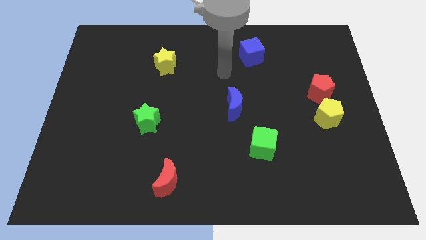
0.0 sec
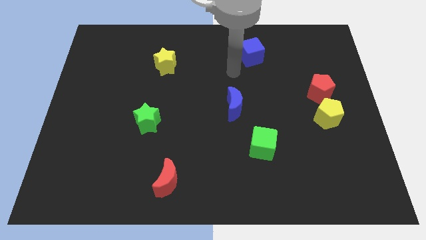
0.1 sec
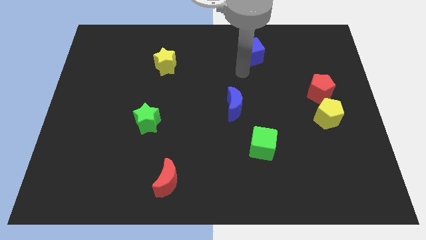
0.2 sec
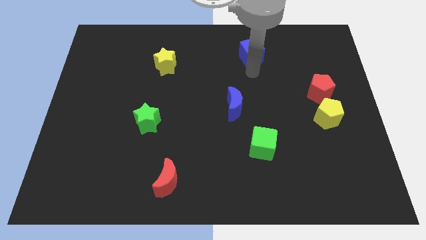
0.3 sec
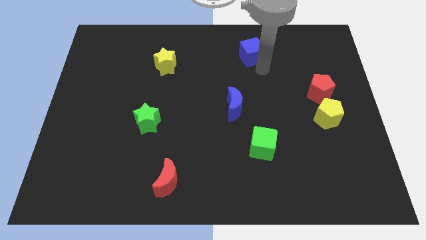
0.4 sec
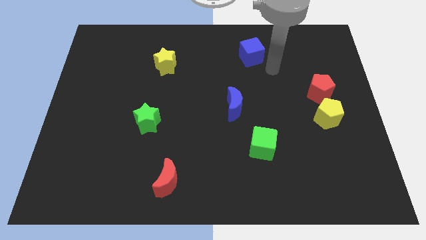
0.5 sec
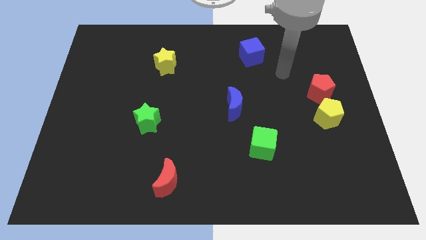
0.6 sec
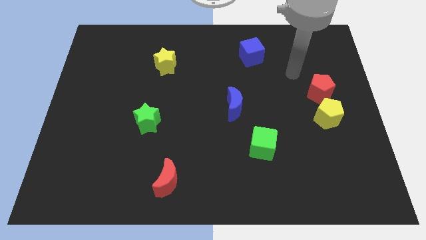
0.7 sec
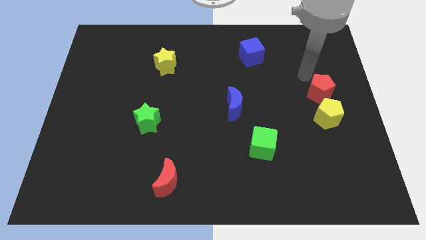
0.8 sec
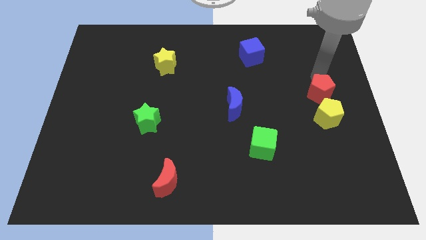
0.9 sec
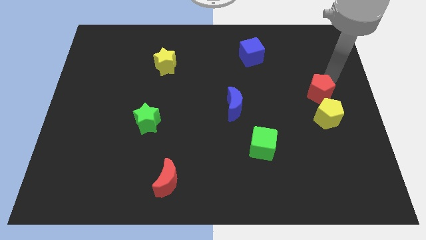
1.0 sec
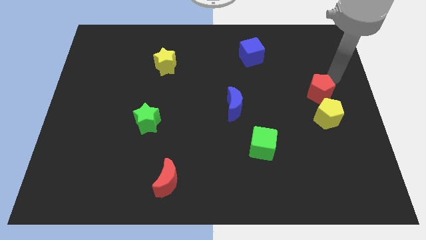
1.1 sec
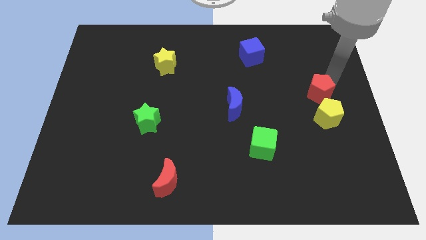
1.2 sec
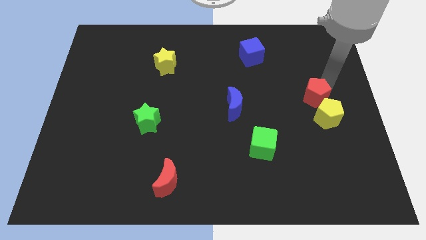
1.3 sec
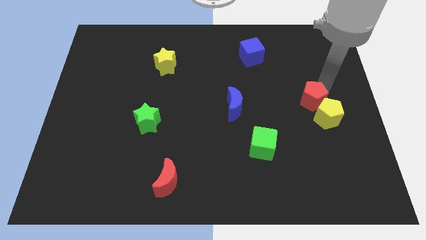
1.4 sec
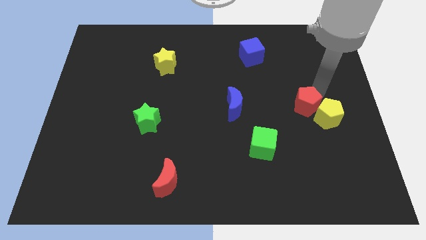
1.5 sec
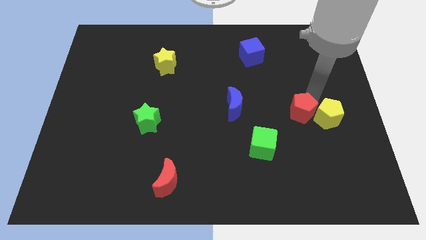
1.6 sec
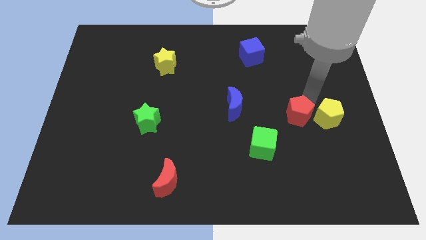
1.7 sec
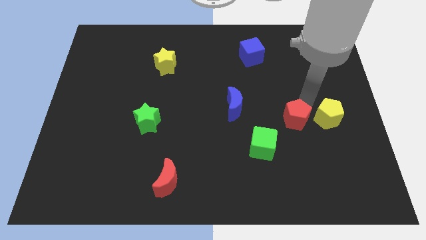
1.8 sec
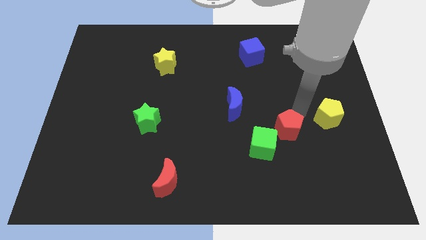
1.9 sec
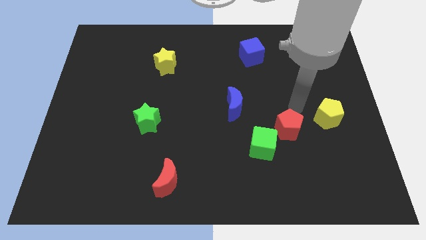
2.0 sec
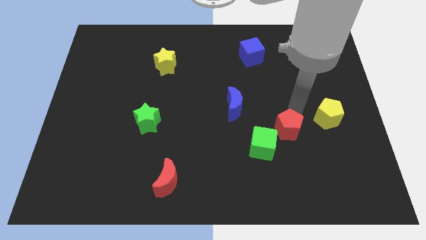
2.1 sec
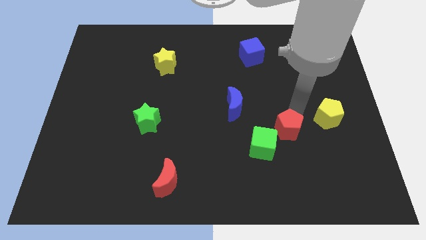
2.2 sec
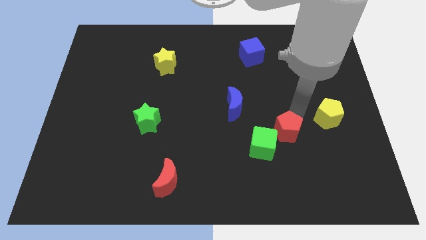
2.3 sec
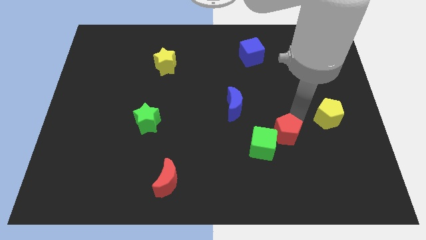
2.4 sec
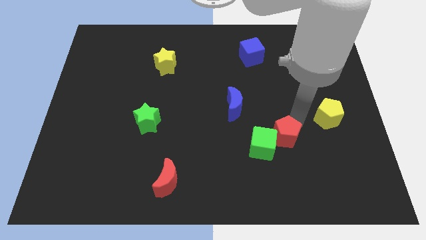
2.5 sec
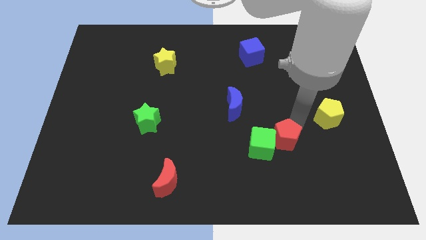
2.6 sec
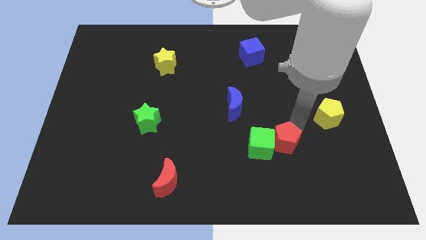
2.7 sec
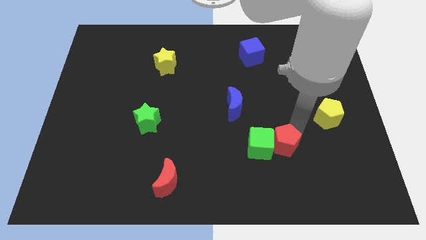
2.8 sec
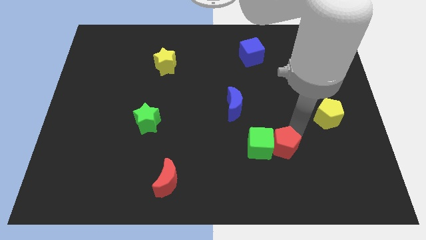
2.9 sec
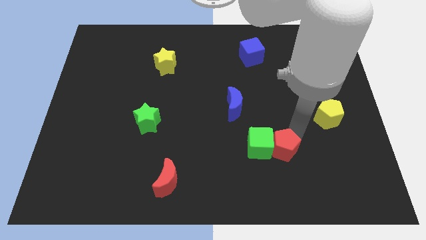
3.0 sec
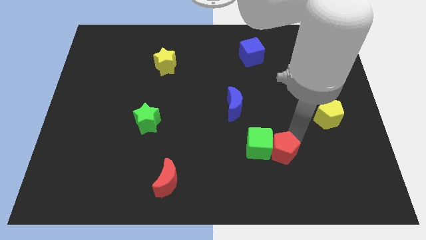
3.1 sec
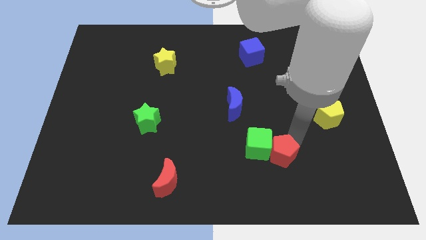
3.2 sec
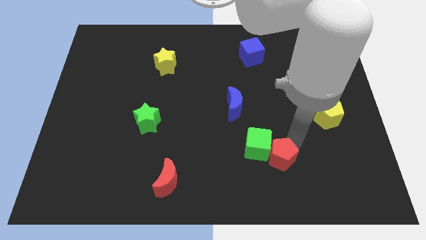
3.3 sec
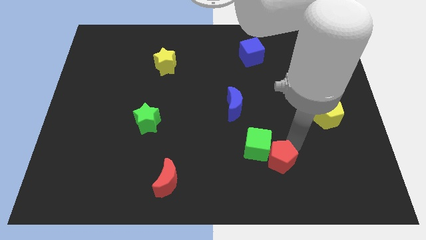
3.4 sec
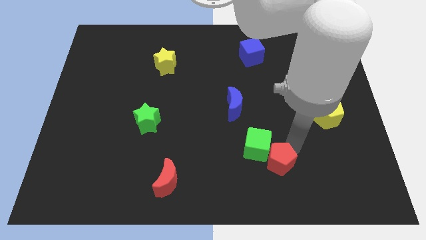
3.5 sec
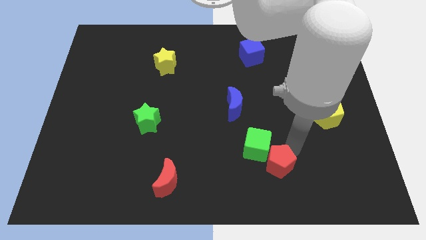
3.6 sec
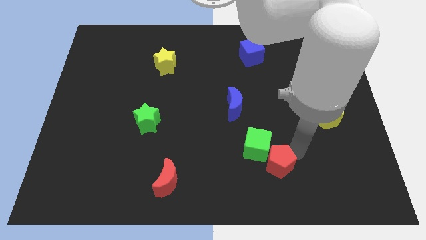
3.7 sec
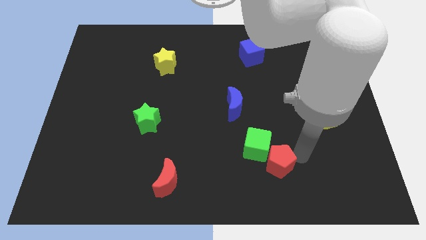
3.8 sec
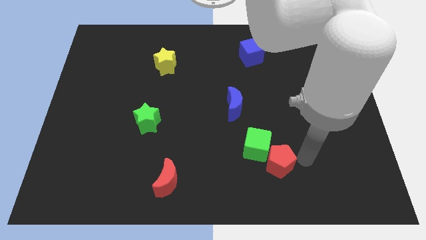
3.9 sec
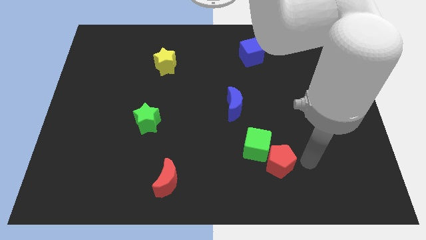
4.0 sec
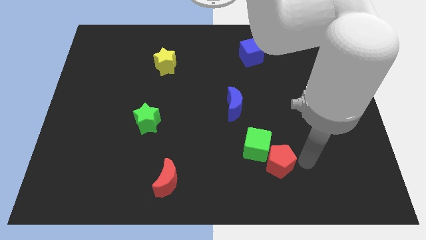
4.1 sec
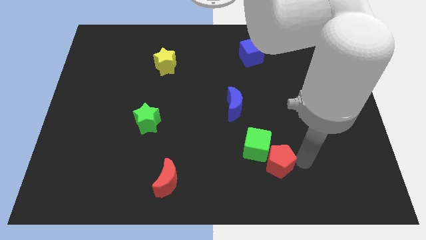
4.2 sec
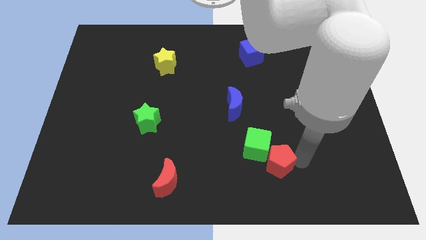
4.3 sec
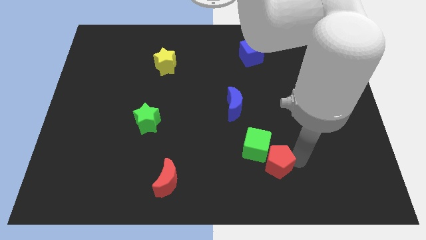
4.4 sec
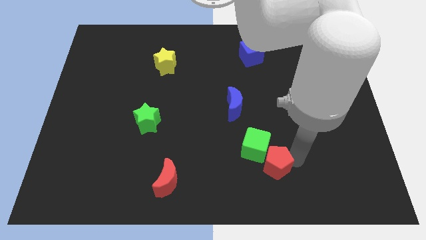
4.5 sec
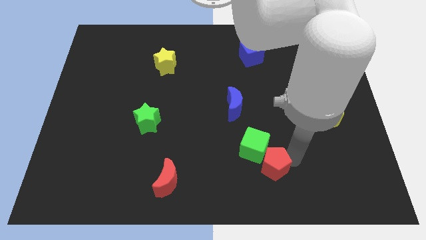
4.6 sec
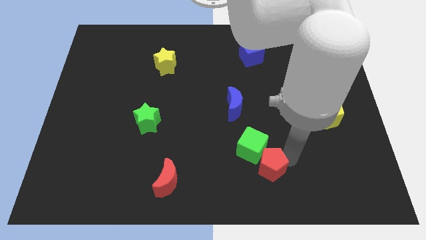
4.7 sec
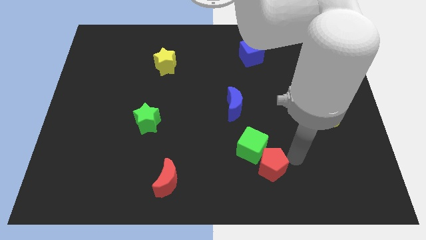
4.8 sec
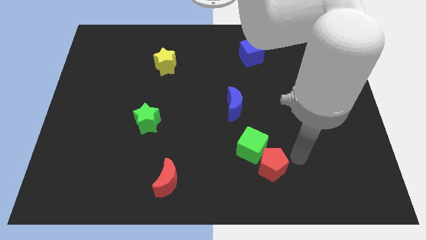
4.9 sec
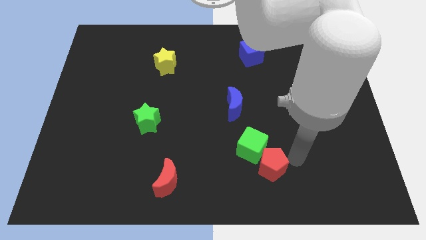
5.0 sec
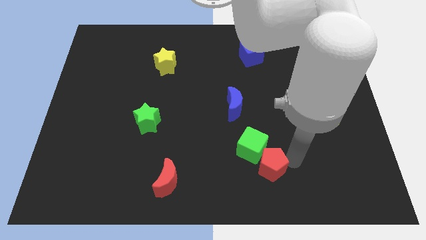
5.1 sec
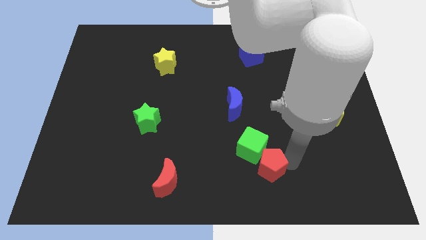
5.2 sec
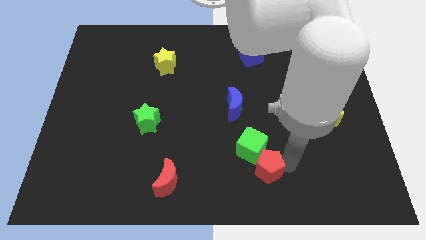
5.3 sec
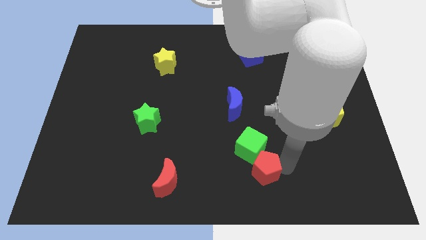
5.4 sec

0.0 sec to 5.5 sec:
put the red pentagon to the bottom
